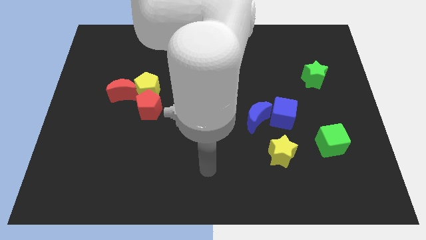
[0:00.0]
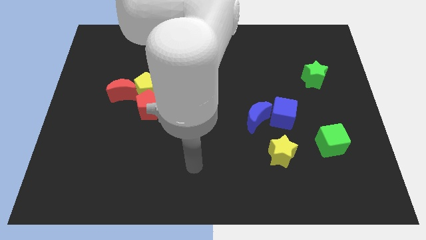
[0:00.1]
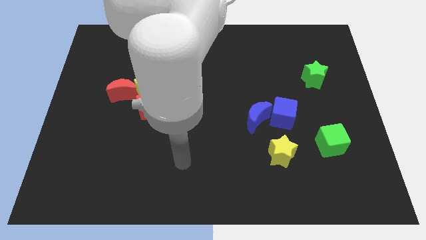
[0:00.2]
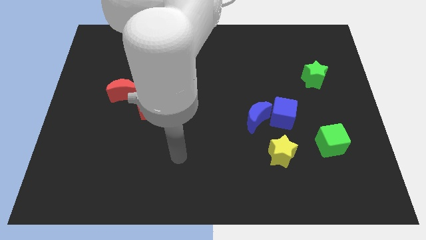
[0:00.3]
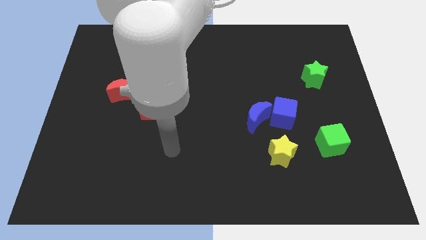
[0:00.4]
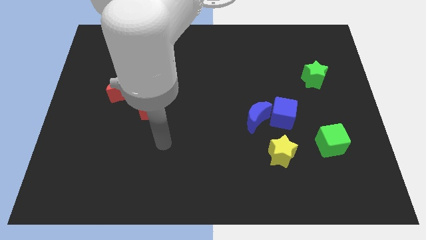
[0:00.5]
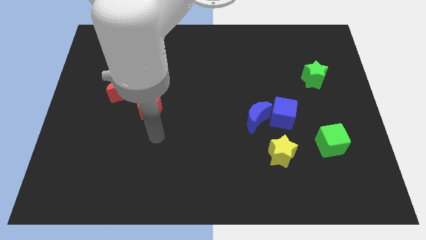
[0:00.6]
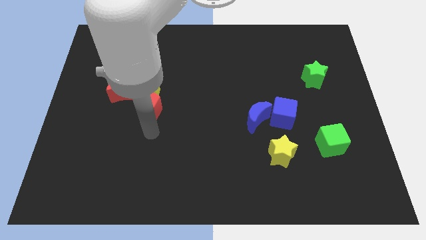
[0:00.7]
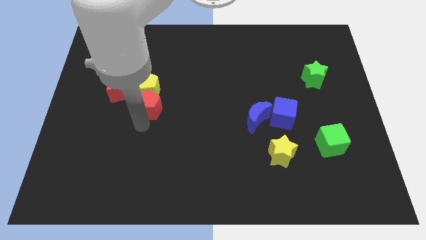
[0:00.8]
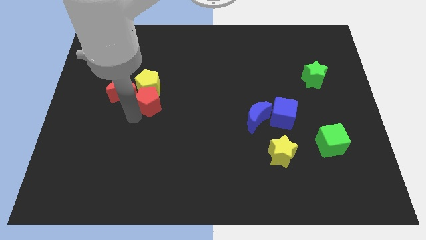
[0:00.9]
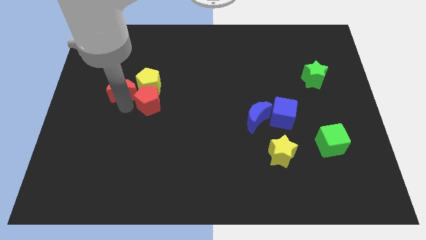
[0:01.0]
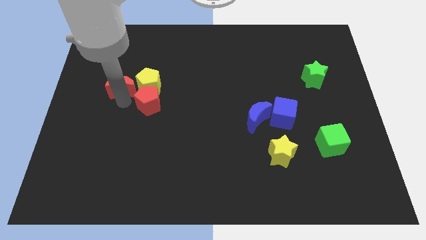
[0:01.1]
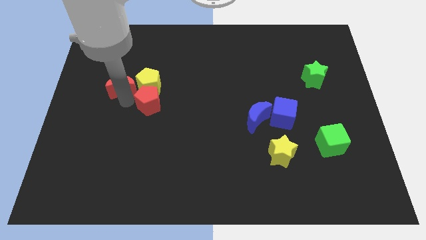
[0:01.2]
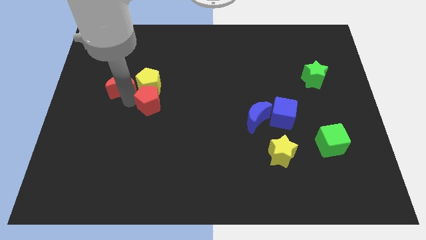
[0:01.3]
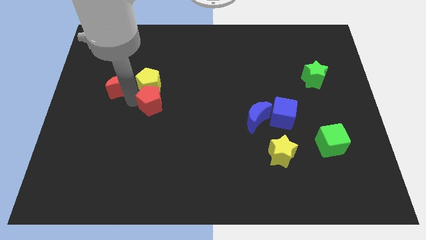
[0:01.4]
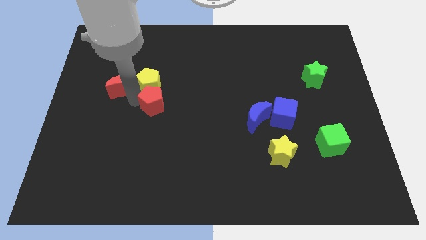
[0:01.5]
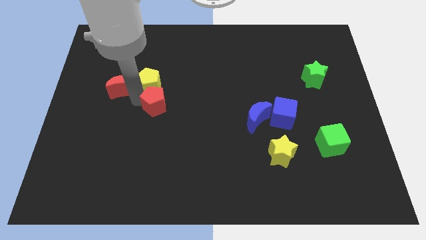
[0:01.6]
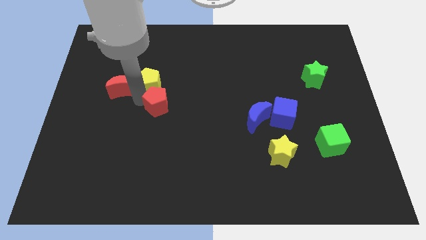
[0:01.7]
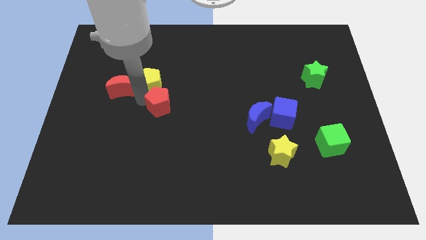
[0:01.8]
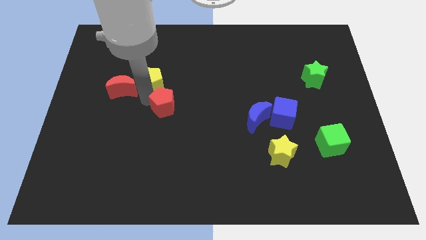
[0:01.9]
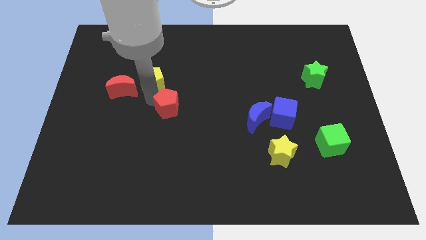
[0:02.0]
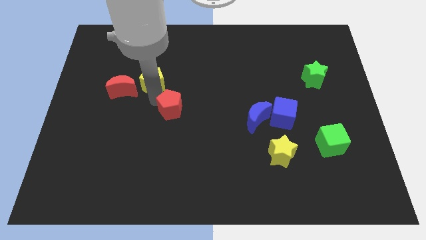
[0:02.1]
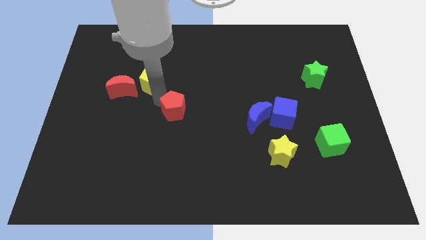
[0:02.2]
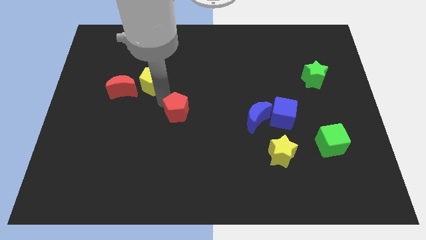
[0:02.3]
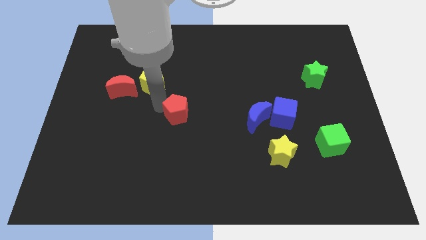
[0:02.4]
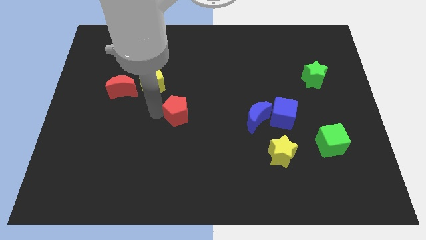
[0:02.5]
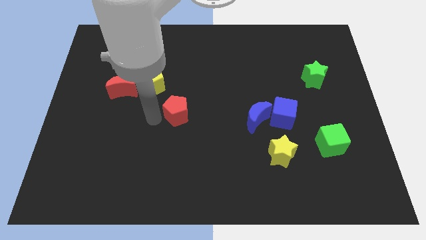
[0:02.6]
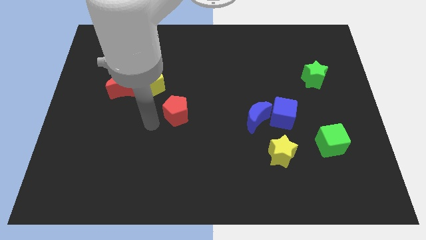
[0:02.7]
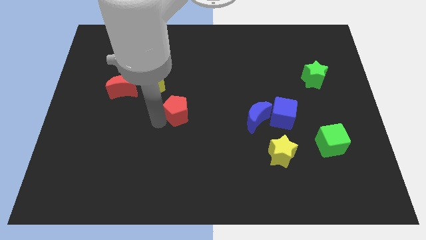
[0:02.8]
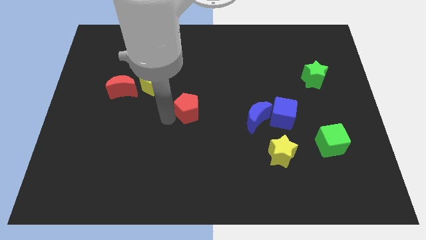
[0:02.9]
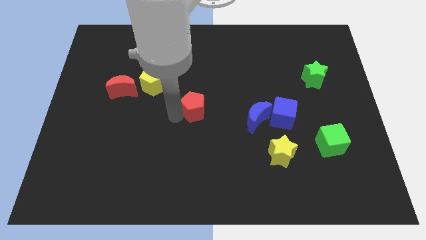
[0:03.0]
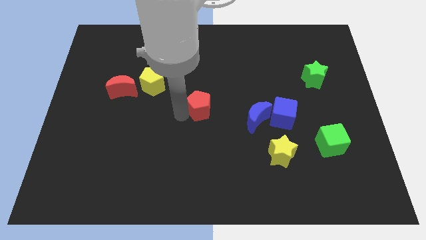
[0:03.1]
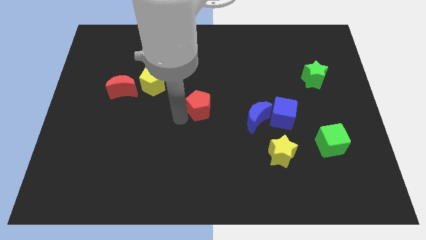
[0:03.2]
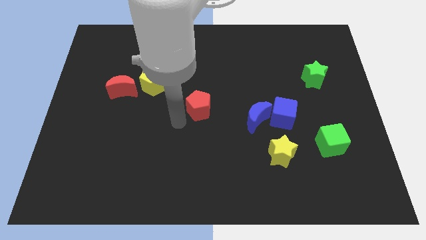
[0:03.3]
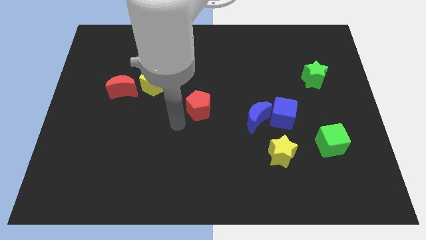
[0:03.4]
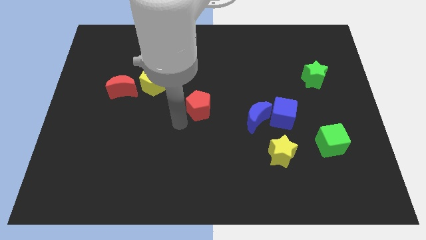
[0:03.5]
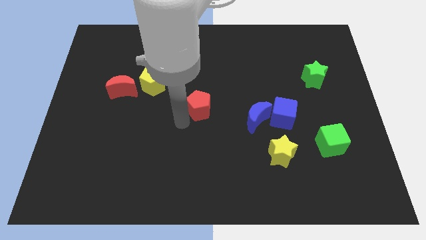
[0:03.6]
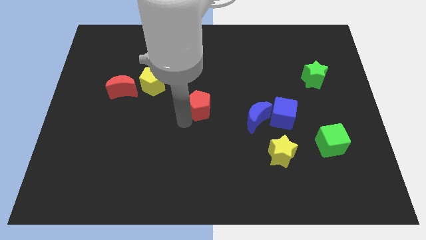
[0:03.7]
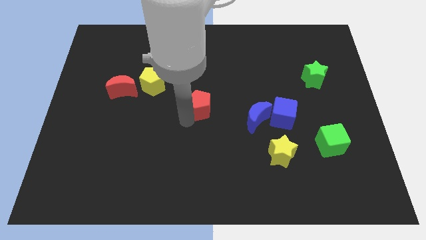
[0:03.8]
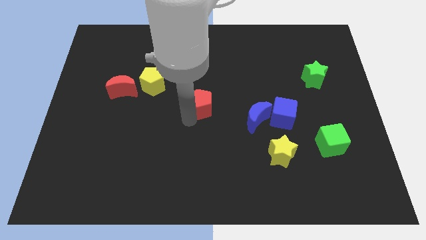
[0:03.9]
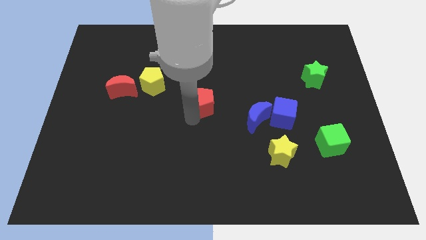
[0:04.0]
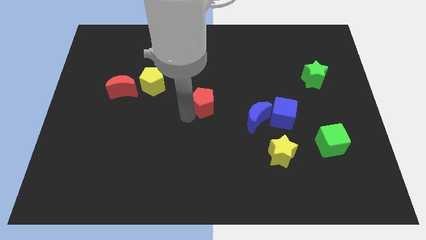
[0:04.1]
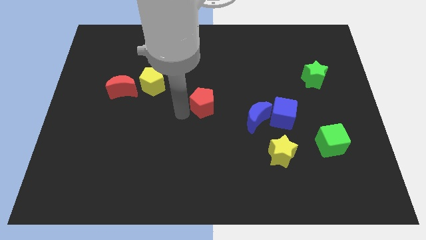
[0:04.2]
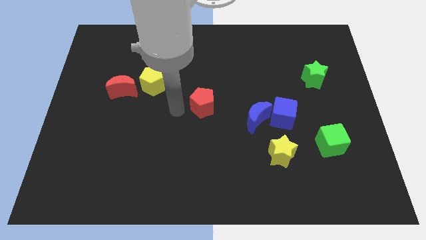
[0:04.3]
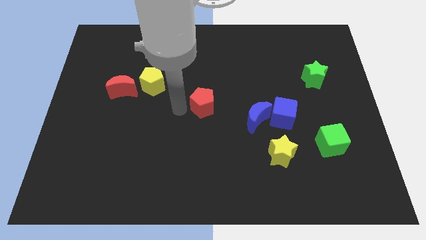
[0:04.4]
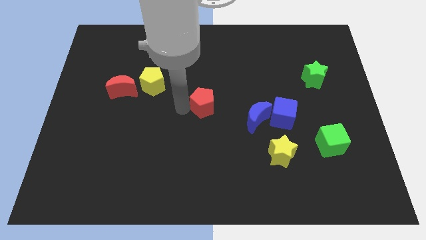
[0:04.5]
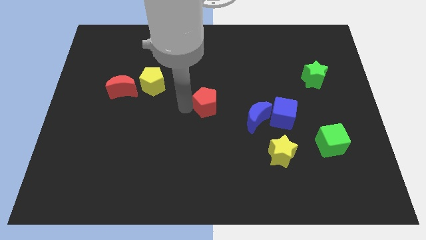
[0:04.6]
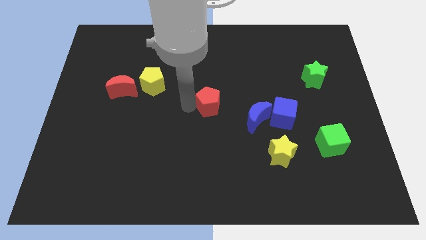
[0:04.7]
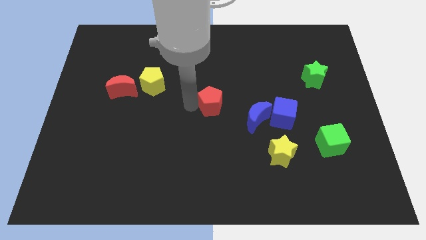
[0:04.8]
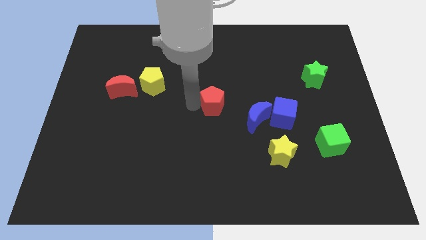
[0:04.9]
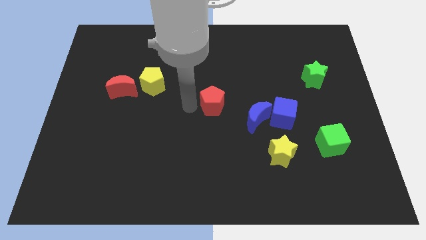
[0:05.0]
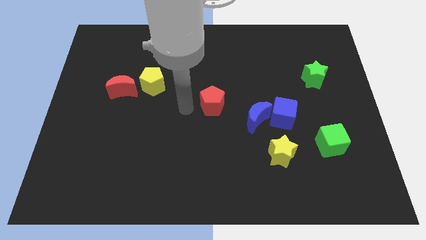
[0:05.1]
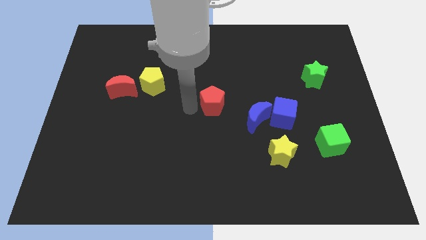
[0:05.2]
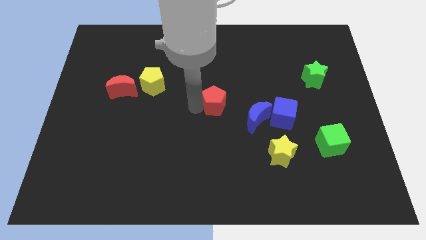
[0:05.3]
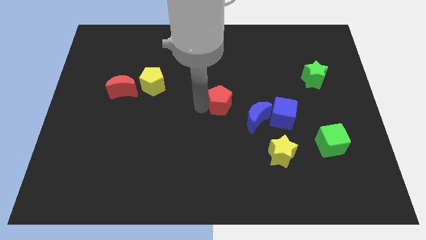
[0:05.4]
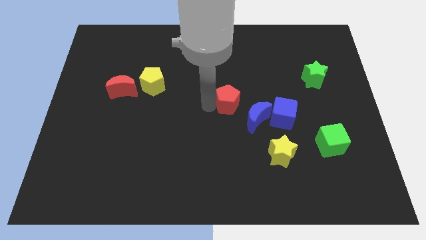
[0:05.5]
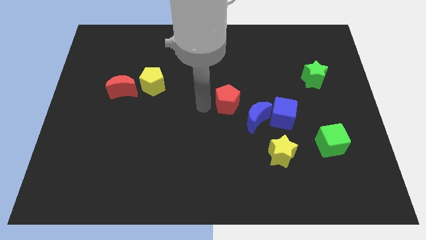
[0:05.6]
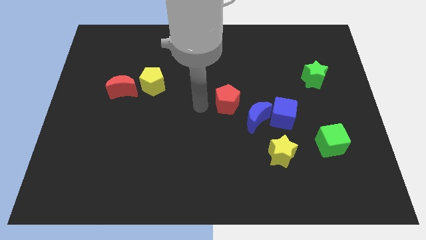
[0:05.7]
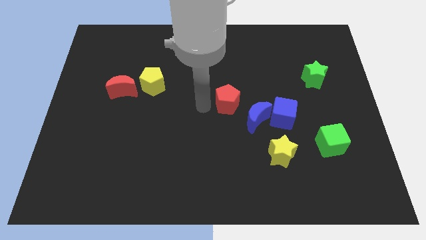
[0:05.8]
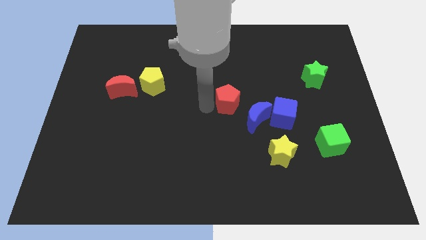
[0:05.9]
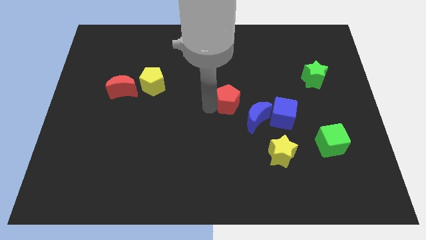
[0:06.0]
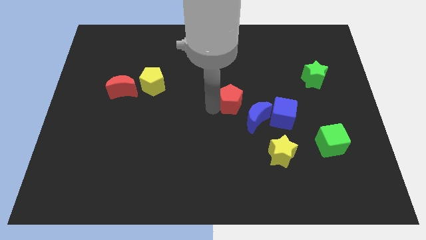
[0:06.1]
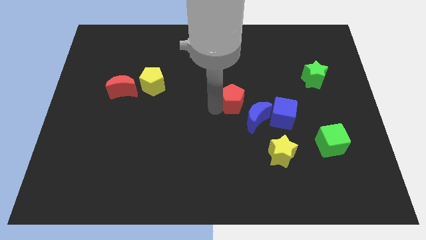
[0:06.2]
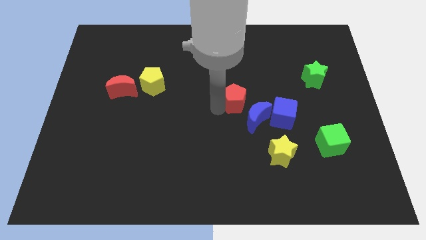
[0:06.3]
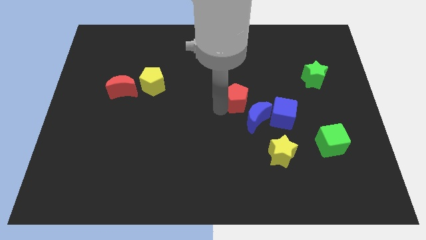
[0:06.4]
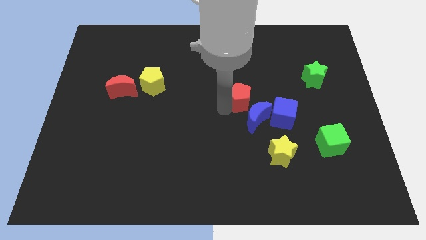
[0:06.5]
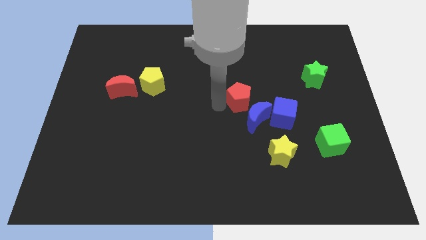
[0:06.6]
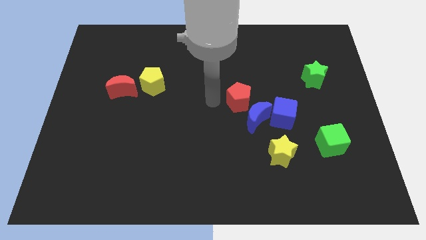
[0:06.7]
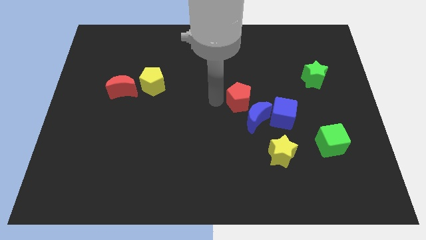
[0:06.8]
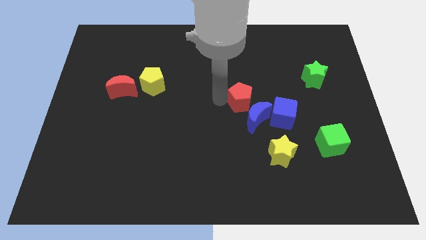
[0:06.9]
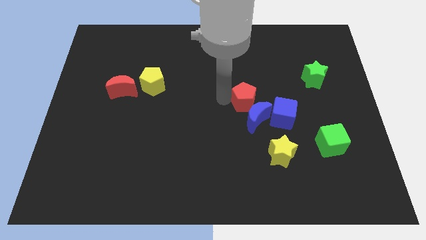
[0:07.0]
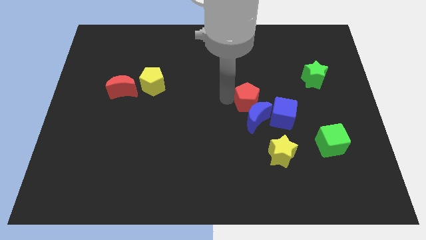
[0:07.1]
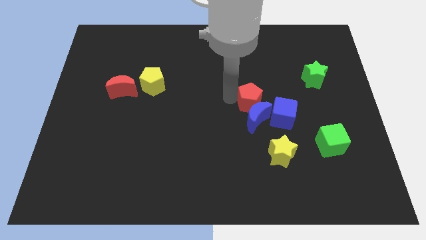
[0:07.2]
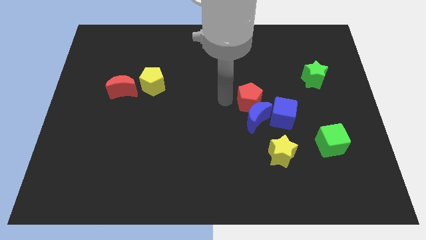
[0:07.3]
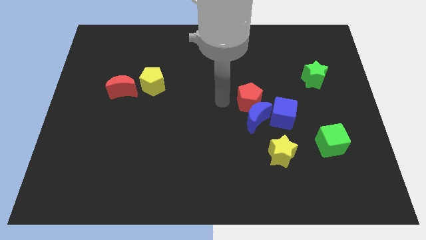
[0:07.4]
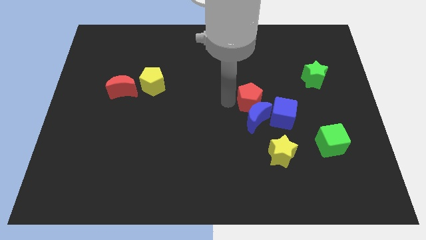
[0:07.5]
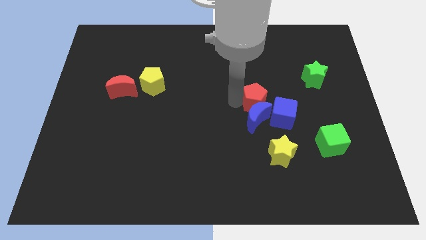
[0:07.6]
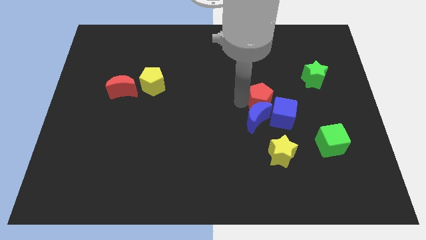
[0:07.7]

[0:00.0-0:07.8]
put the red pentagon to the top side of the yellow star
